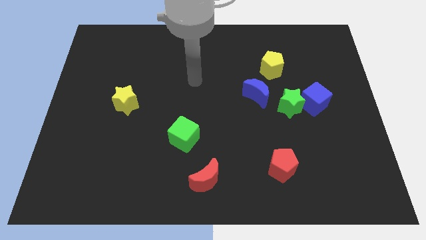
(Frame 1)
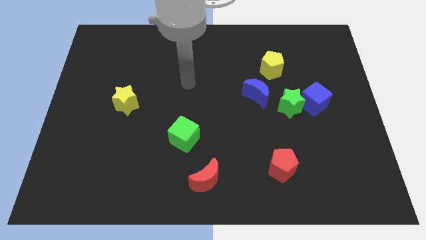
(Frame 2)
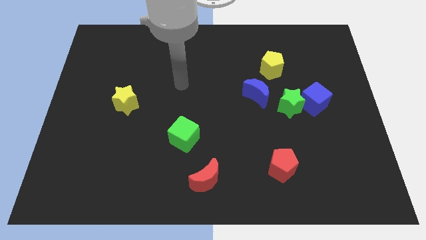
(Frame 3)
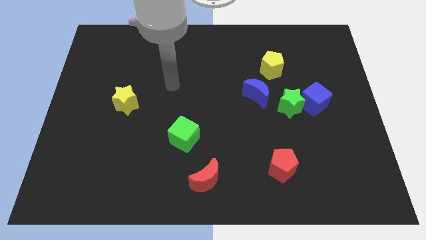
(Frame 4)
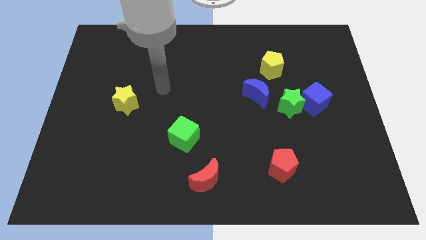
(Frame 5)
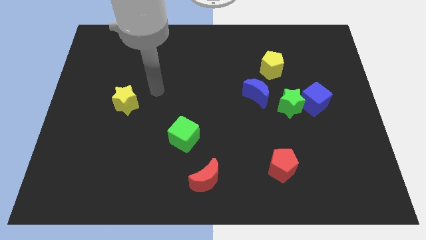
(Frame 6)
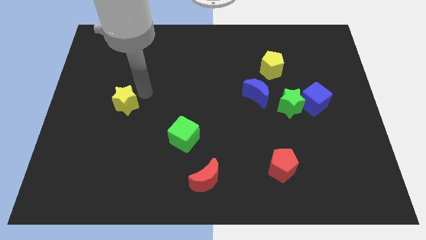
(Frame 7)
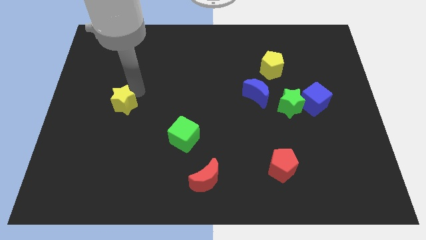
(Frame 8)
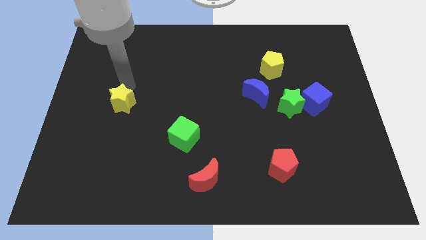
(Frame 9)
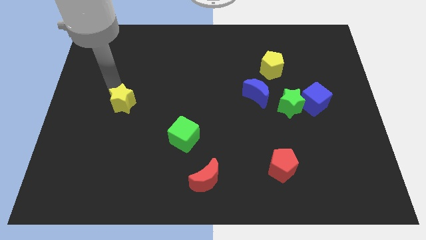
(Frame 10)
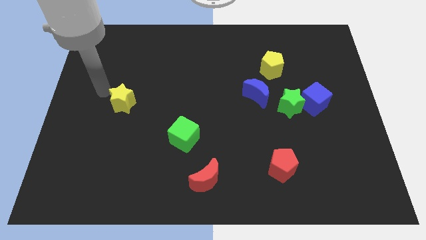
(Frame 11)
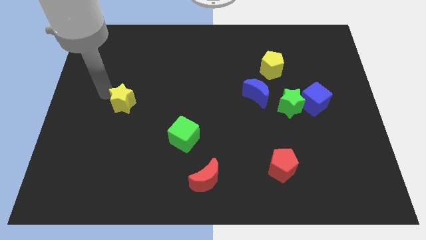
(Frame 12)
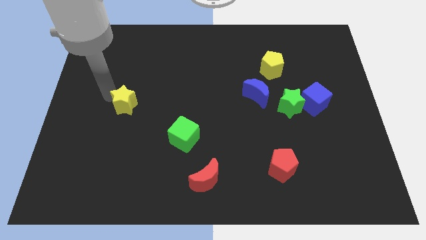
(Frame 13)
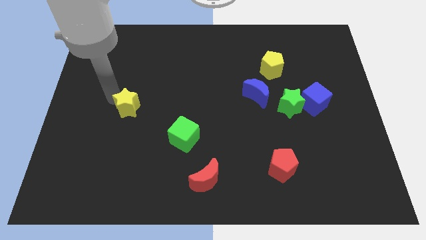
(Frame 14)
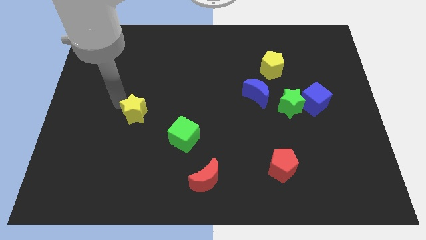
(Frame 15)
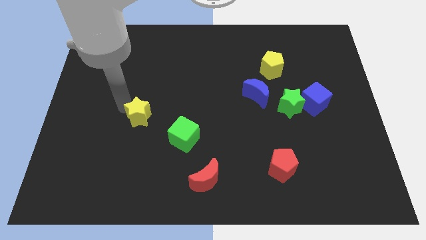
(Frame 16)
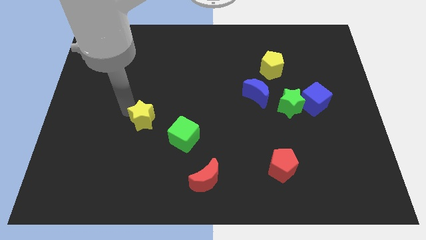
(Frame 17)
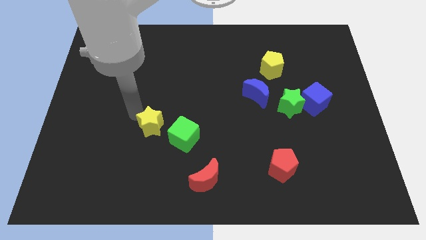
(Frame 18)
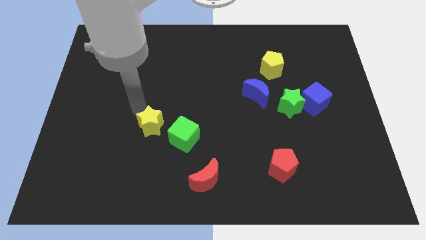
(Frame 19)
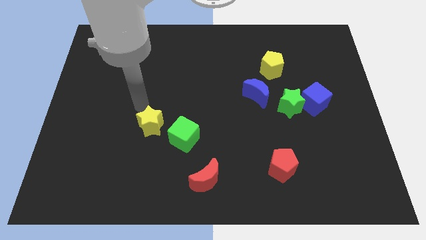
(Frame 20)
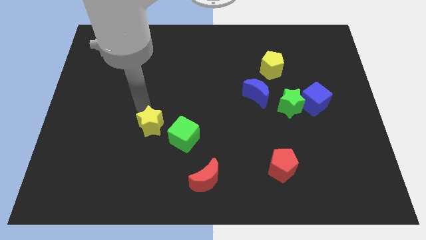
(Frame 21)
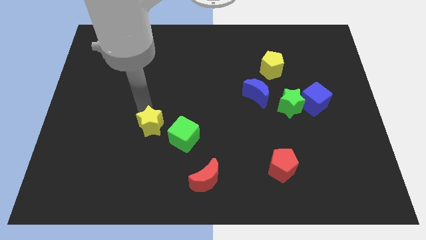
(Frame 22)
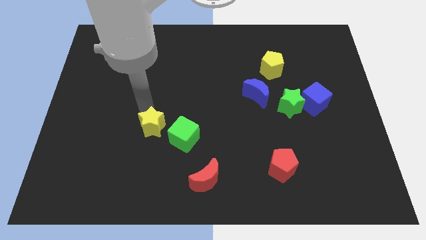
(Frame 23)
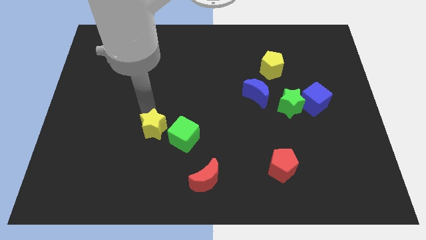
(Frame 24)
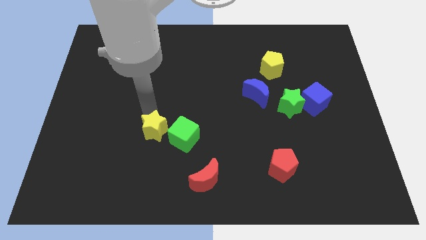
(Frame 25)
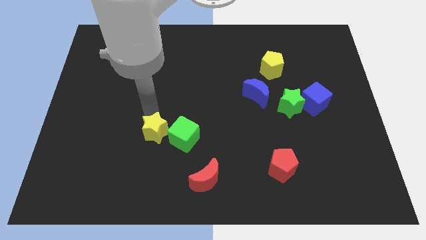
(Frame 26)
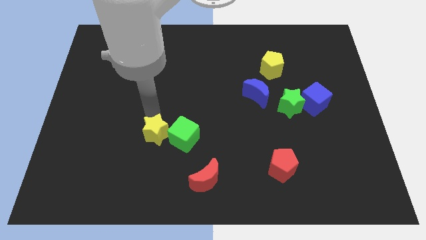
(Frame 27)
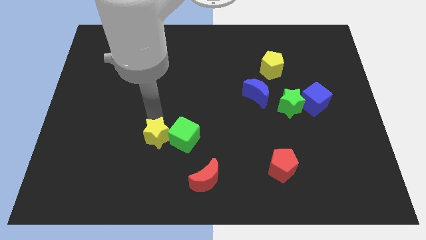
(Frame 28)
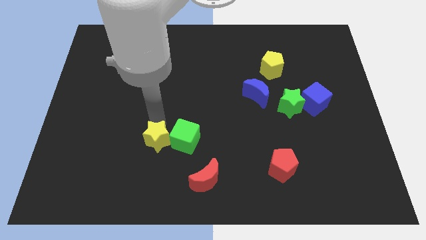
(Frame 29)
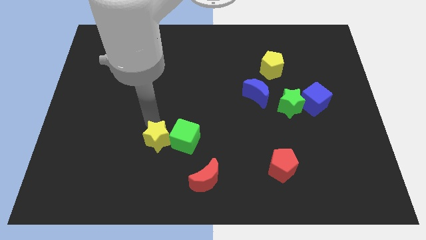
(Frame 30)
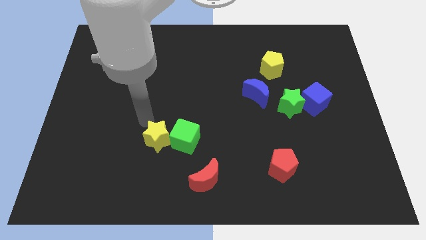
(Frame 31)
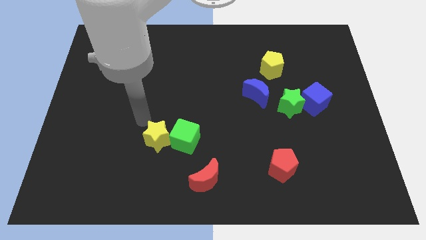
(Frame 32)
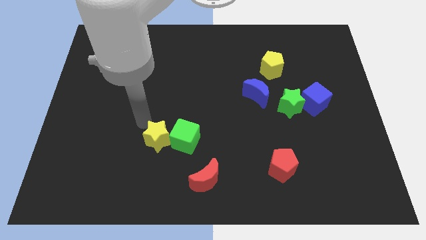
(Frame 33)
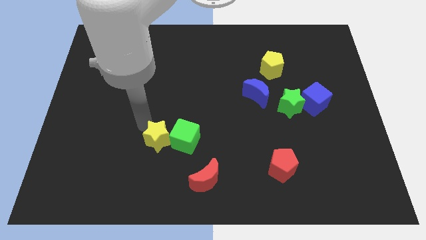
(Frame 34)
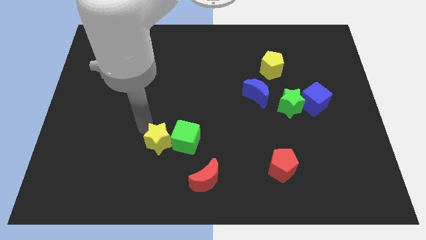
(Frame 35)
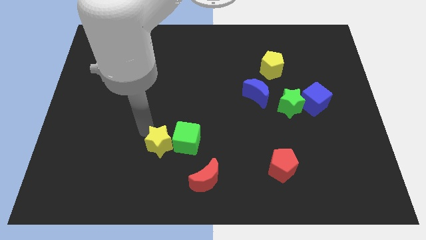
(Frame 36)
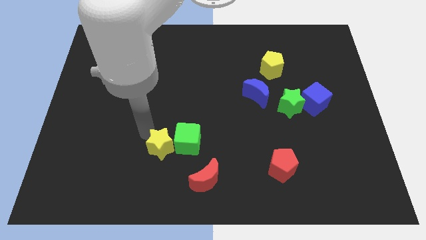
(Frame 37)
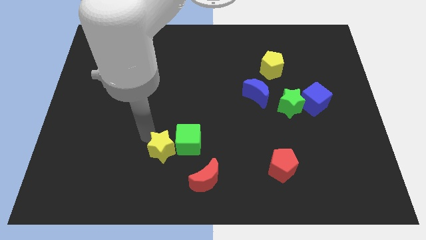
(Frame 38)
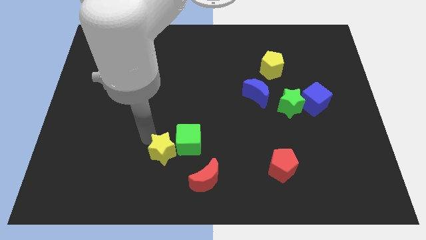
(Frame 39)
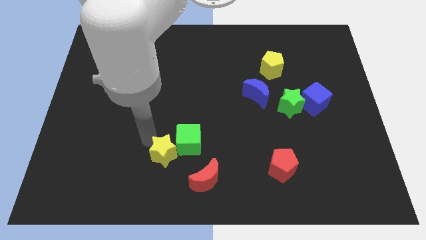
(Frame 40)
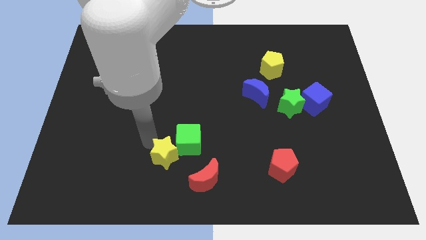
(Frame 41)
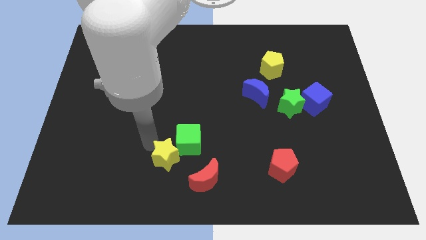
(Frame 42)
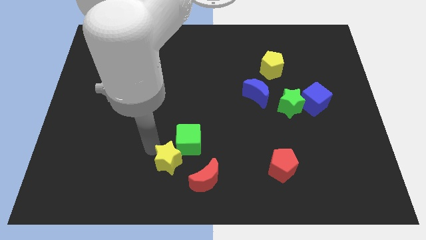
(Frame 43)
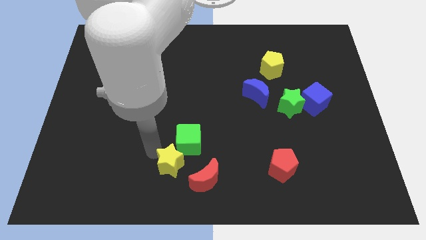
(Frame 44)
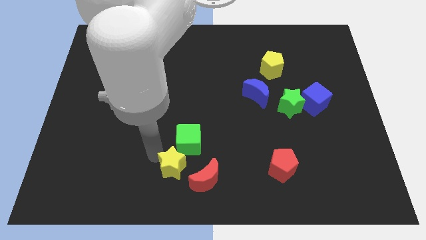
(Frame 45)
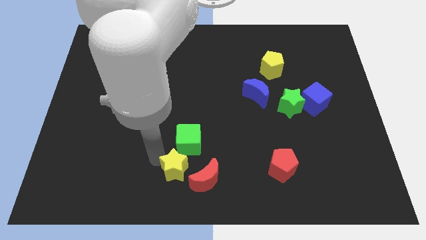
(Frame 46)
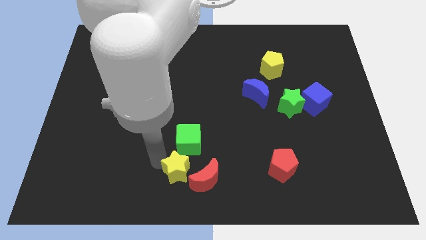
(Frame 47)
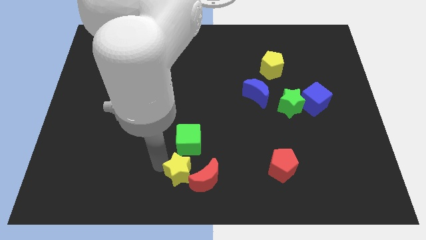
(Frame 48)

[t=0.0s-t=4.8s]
put the yellow star next to the red moon

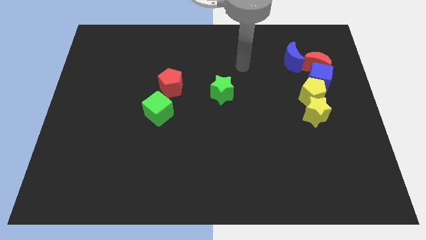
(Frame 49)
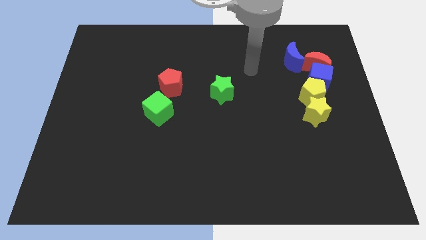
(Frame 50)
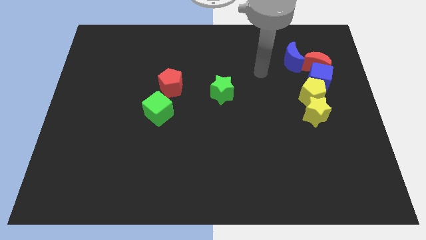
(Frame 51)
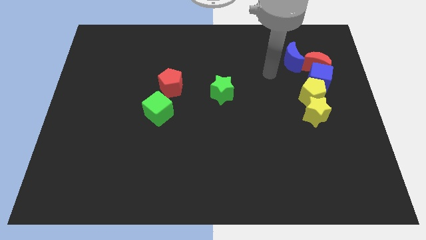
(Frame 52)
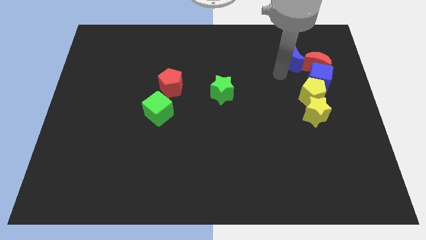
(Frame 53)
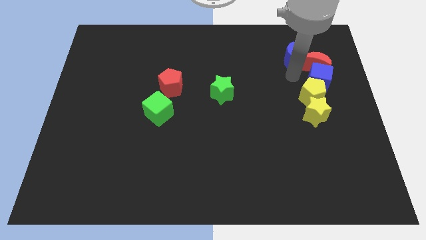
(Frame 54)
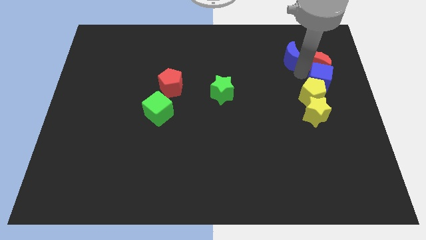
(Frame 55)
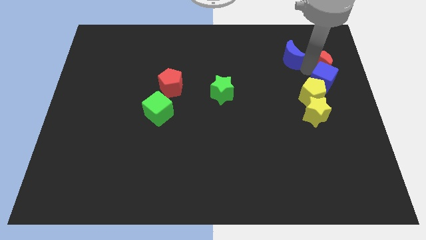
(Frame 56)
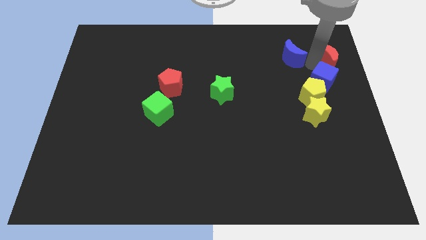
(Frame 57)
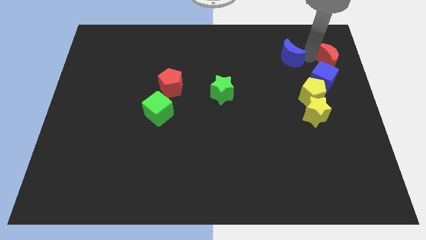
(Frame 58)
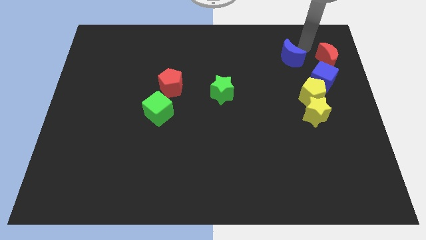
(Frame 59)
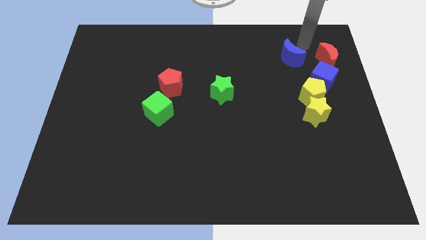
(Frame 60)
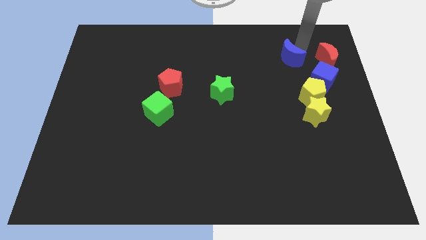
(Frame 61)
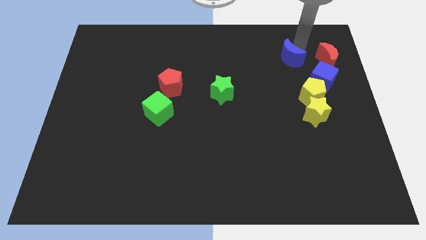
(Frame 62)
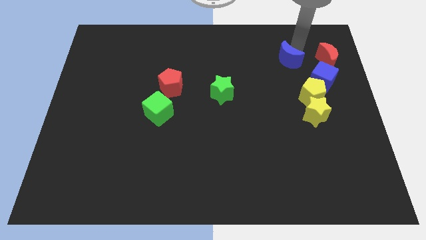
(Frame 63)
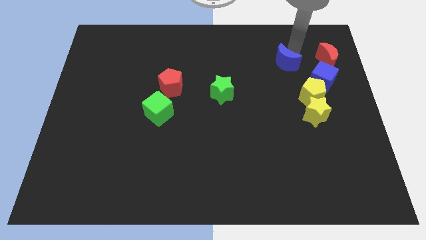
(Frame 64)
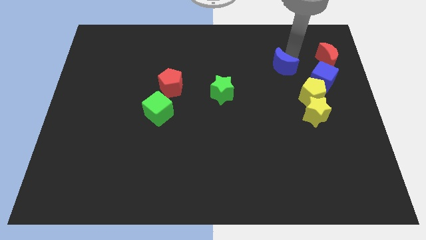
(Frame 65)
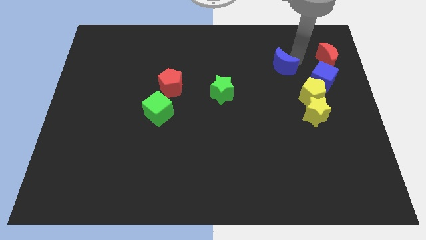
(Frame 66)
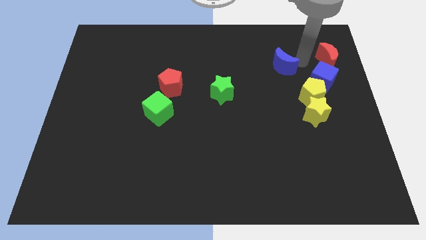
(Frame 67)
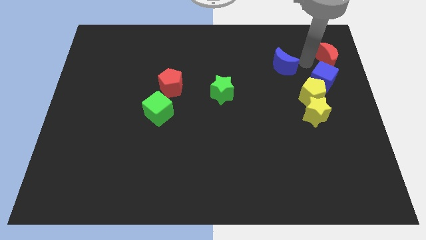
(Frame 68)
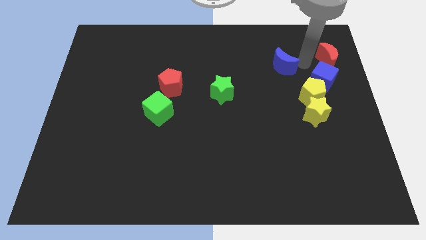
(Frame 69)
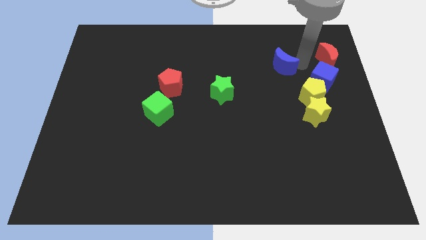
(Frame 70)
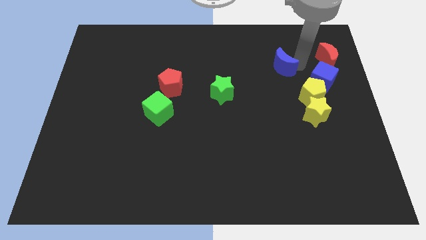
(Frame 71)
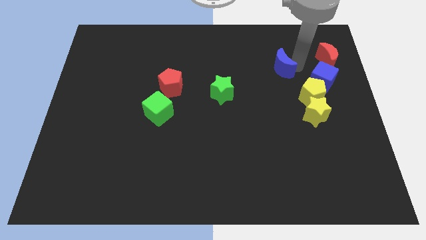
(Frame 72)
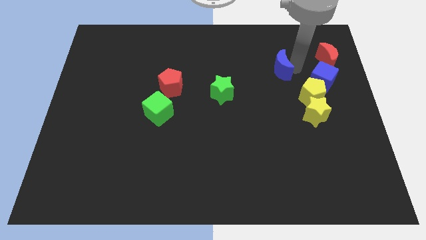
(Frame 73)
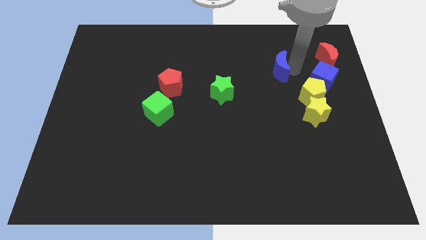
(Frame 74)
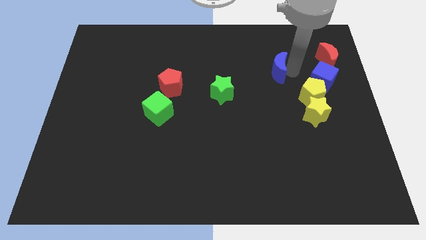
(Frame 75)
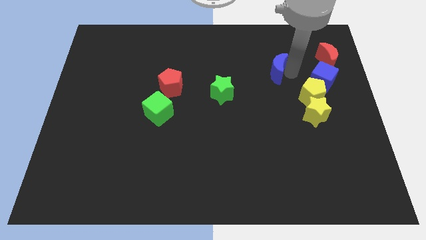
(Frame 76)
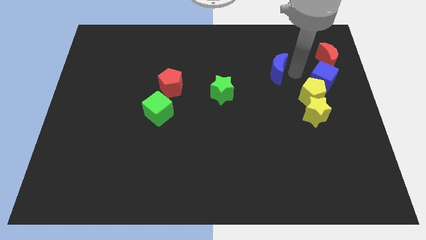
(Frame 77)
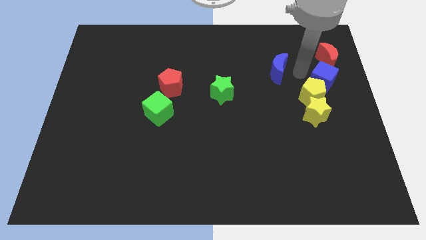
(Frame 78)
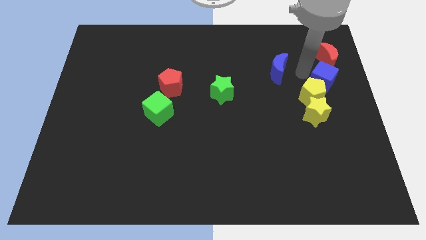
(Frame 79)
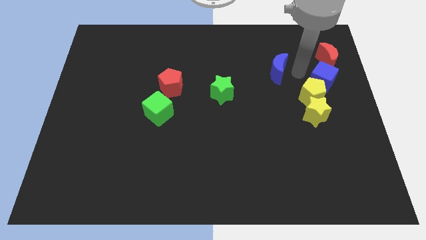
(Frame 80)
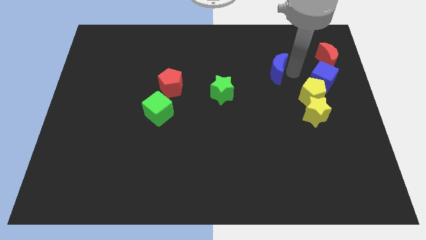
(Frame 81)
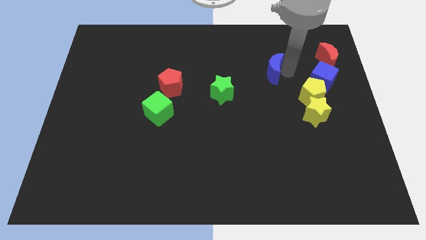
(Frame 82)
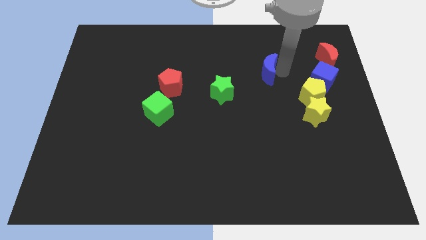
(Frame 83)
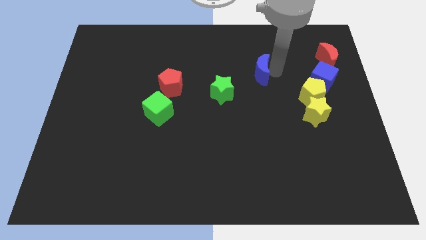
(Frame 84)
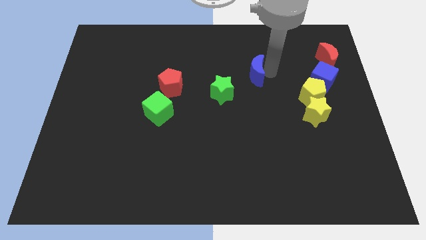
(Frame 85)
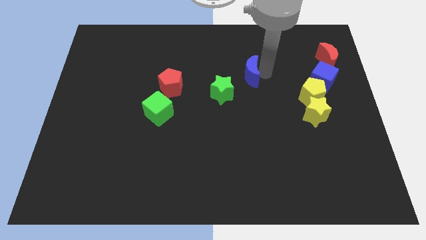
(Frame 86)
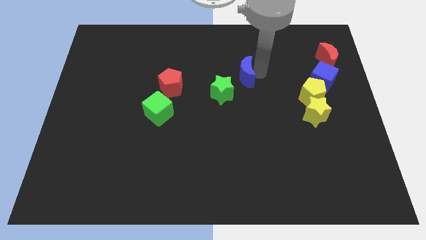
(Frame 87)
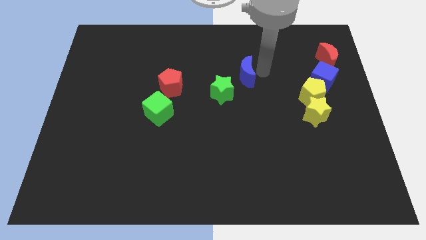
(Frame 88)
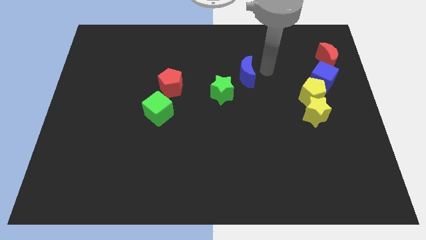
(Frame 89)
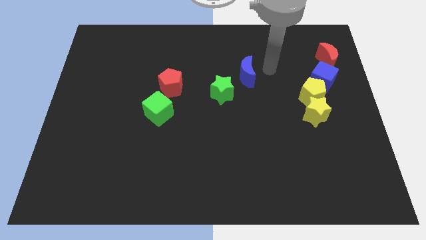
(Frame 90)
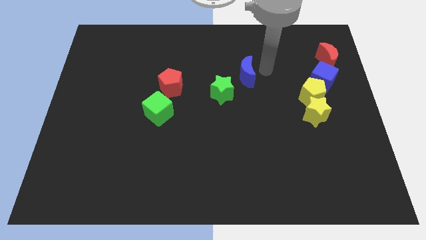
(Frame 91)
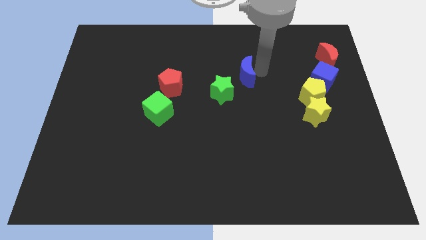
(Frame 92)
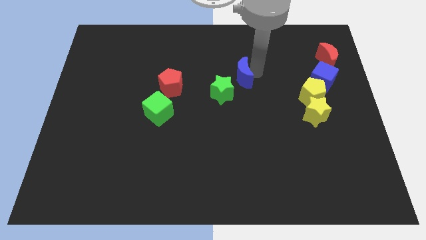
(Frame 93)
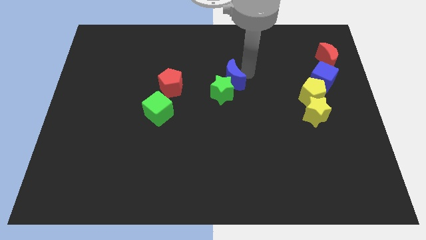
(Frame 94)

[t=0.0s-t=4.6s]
slide the blue moon close to the green star
